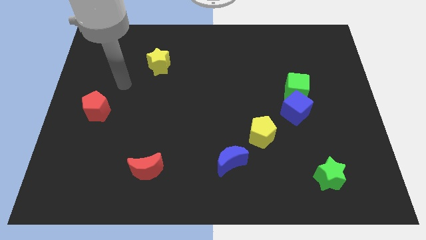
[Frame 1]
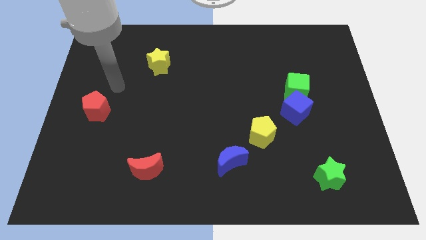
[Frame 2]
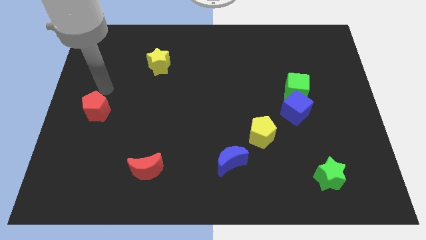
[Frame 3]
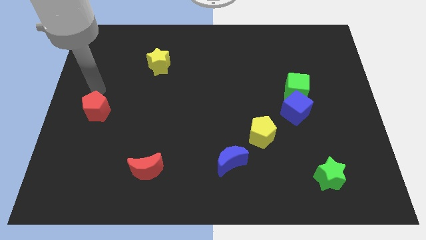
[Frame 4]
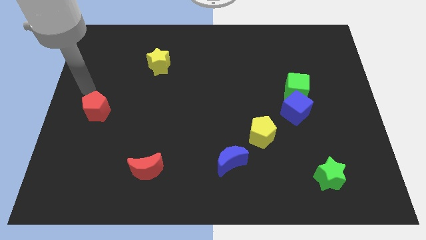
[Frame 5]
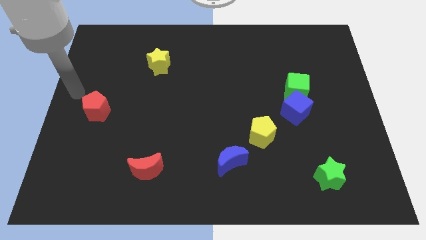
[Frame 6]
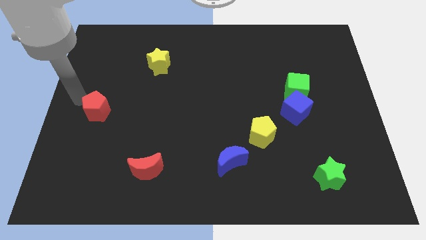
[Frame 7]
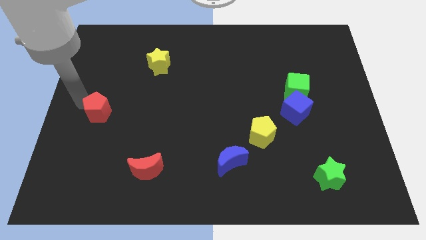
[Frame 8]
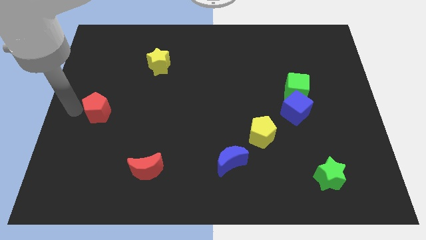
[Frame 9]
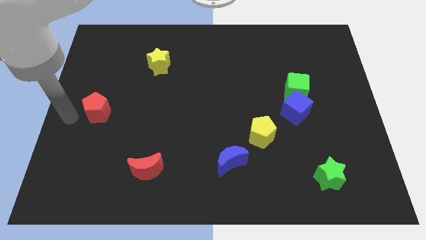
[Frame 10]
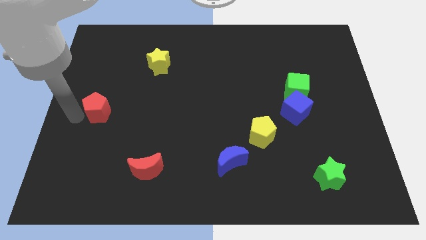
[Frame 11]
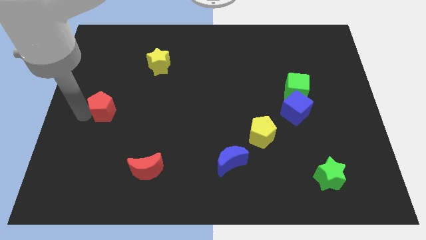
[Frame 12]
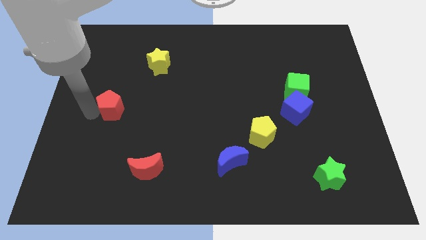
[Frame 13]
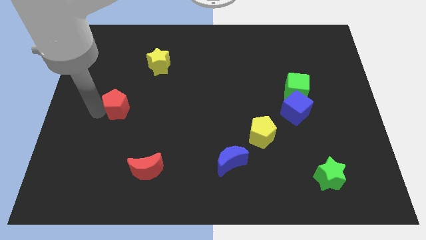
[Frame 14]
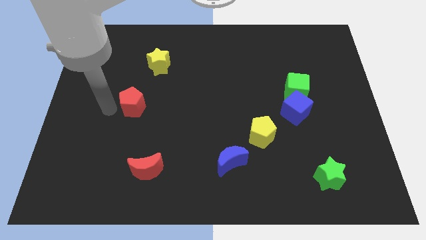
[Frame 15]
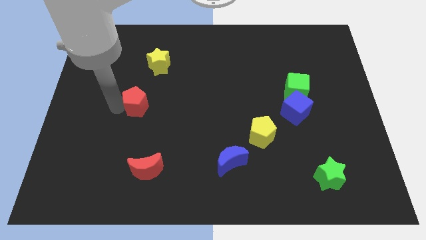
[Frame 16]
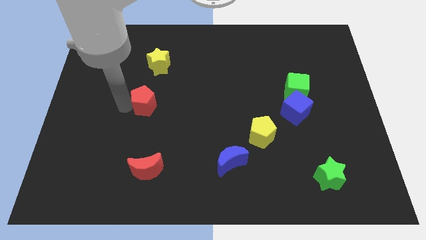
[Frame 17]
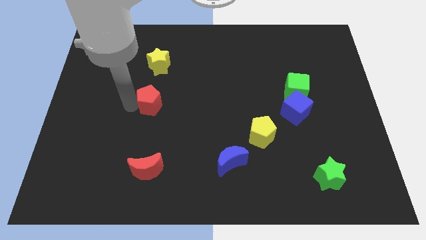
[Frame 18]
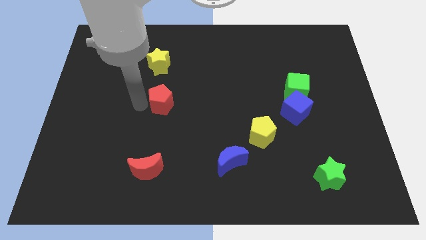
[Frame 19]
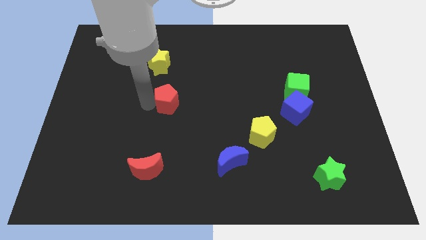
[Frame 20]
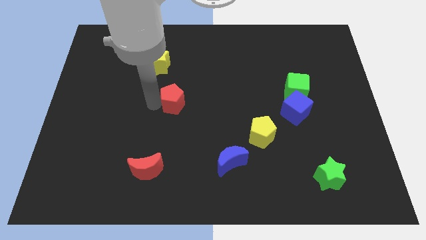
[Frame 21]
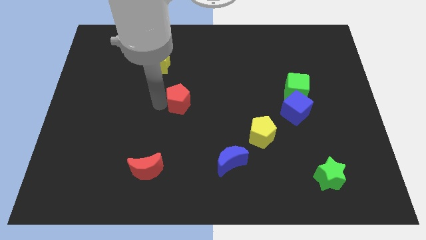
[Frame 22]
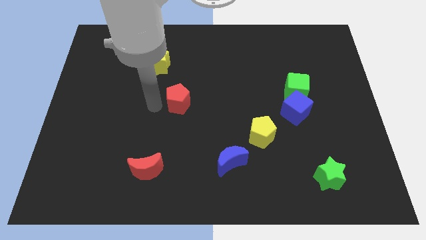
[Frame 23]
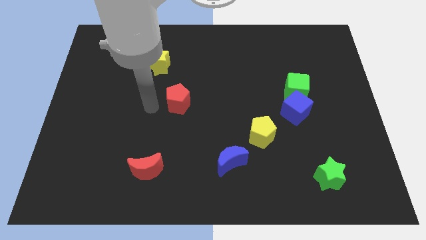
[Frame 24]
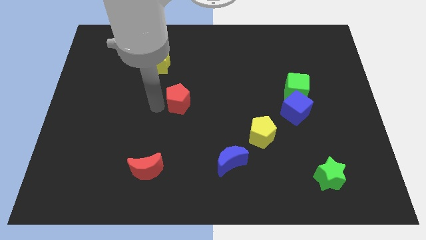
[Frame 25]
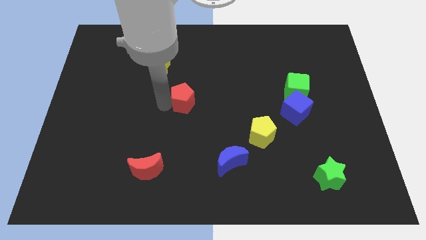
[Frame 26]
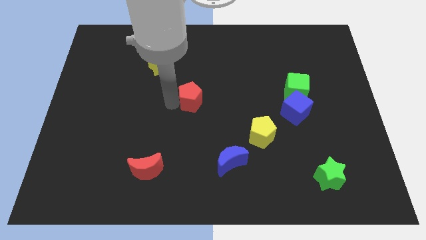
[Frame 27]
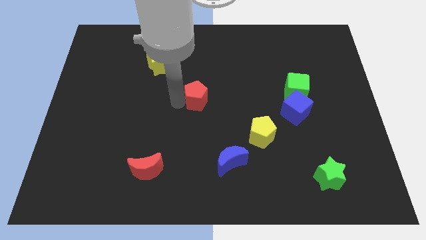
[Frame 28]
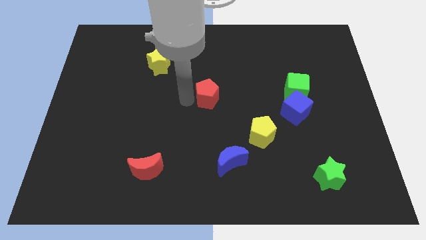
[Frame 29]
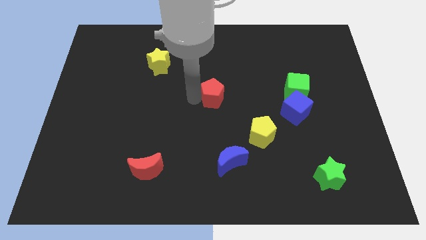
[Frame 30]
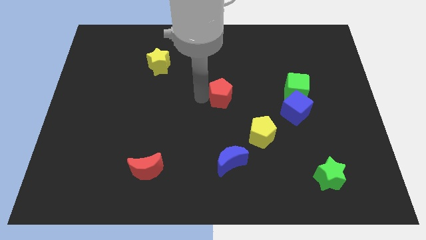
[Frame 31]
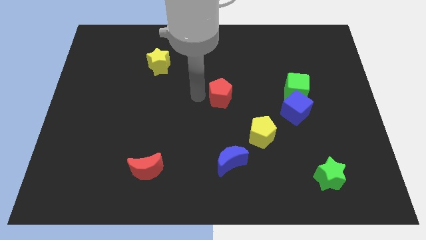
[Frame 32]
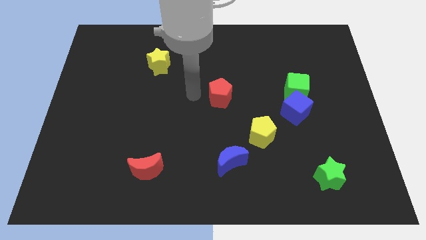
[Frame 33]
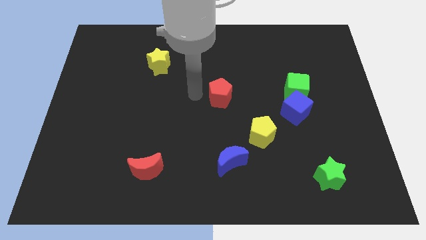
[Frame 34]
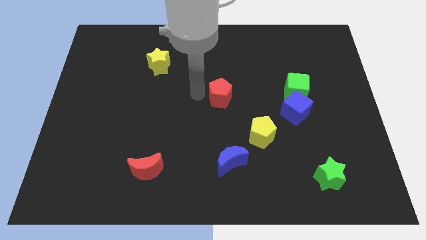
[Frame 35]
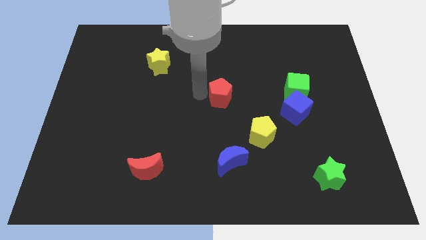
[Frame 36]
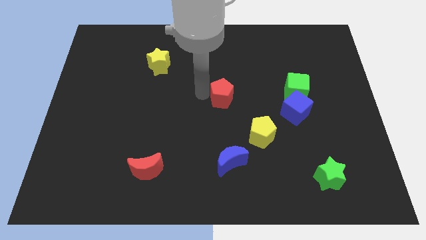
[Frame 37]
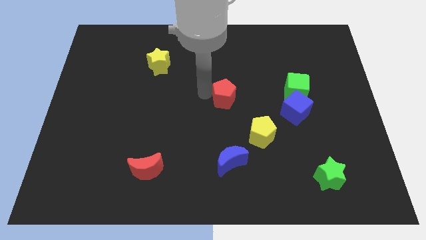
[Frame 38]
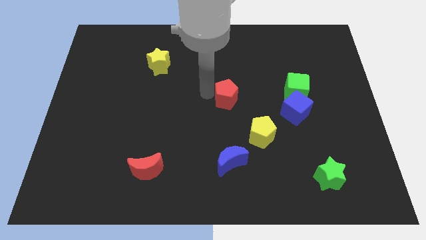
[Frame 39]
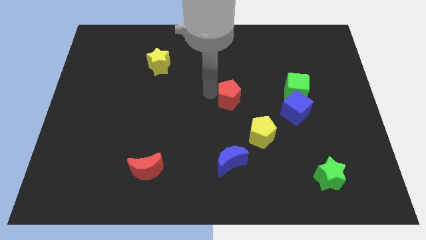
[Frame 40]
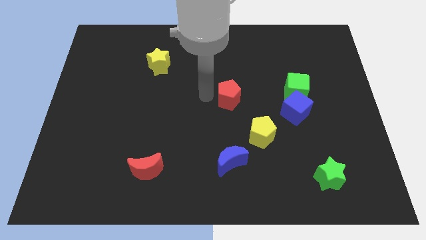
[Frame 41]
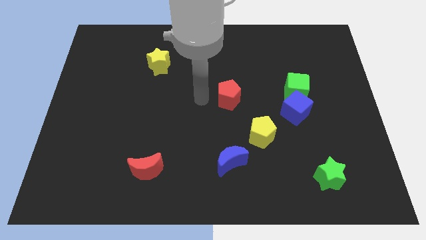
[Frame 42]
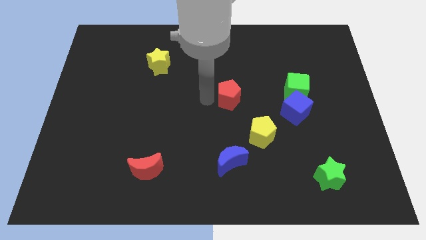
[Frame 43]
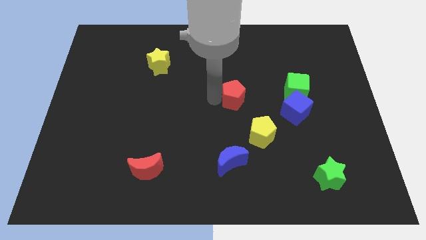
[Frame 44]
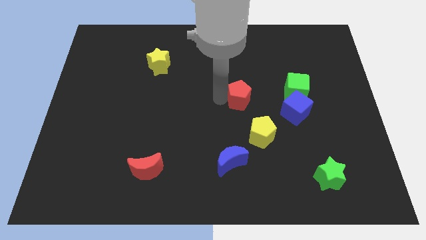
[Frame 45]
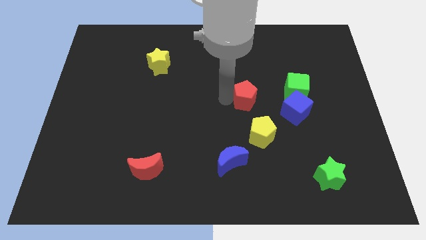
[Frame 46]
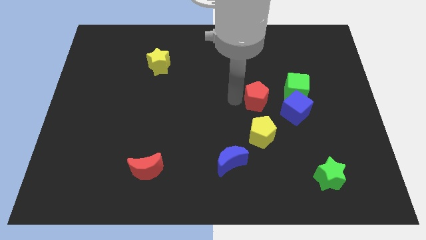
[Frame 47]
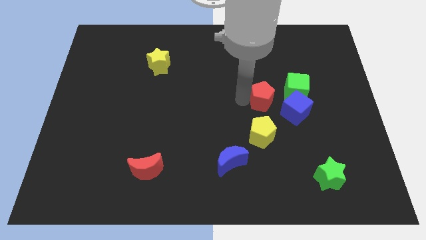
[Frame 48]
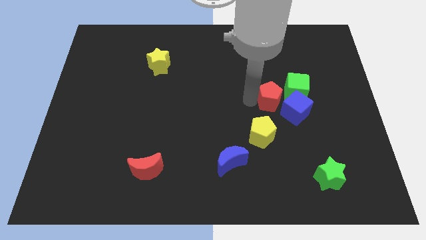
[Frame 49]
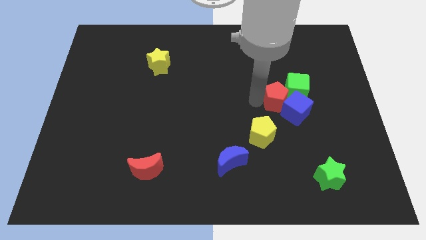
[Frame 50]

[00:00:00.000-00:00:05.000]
push the red pentagon close to the green cube

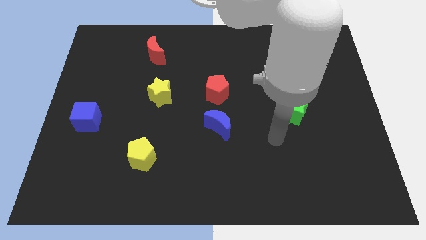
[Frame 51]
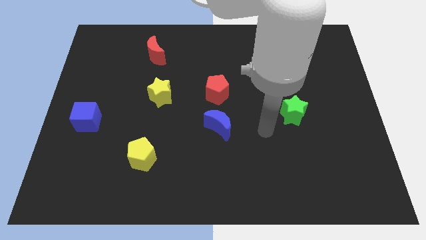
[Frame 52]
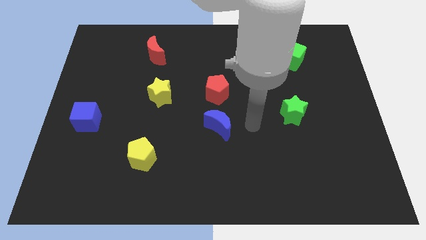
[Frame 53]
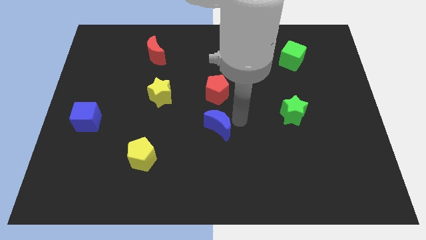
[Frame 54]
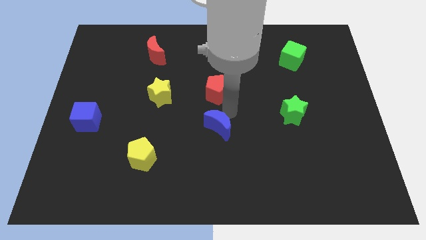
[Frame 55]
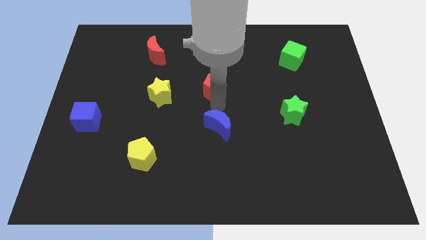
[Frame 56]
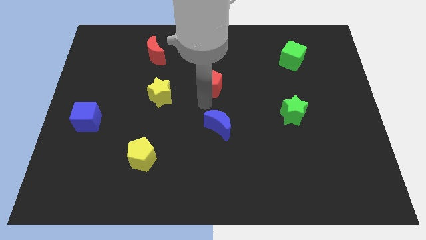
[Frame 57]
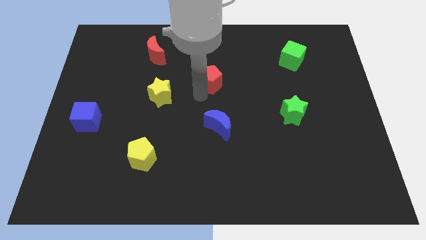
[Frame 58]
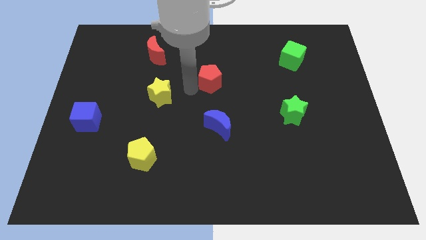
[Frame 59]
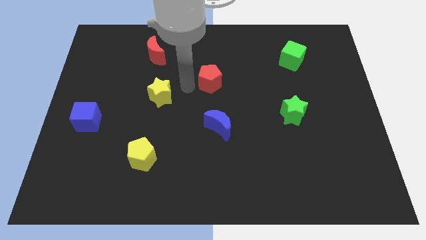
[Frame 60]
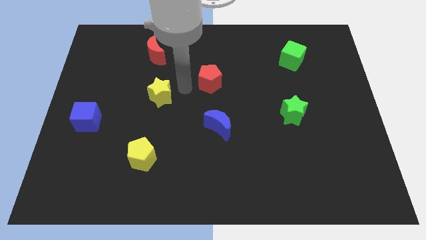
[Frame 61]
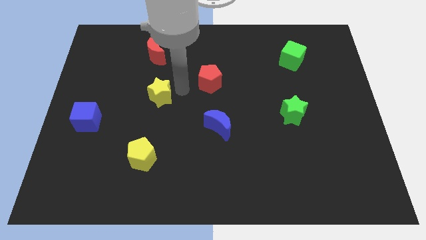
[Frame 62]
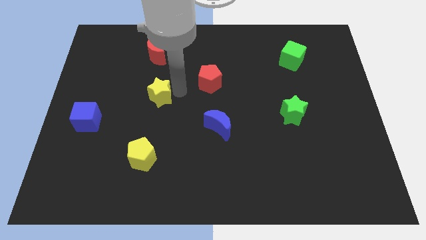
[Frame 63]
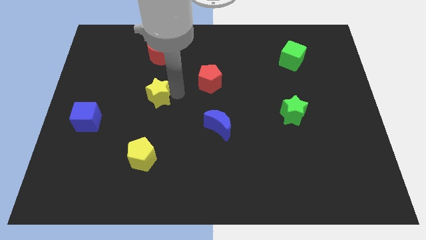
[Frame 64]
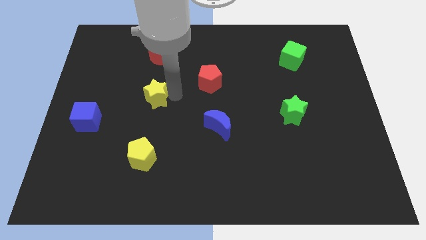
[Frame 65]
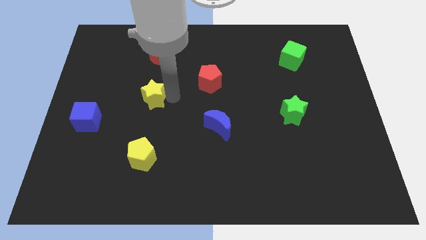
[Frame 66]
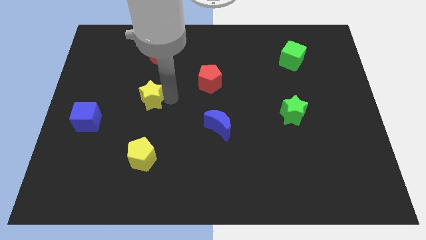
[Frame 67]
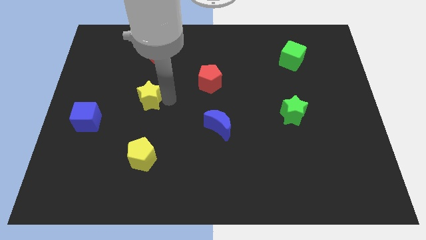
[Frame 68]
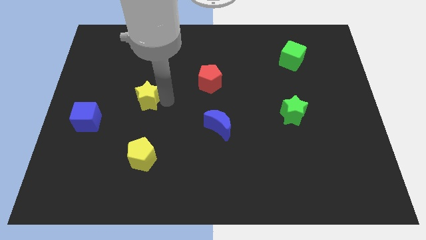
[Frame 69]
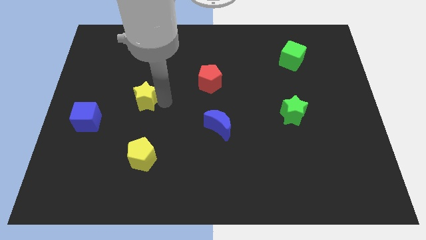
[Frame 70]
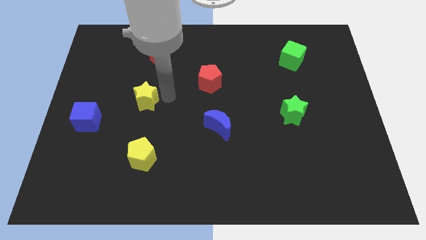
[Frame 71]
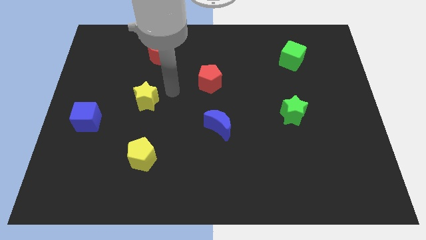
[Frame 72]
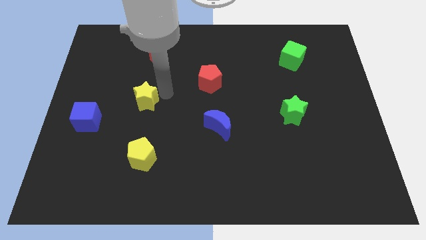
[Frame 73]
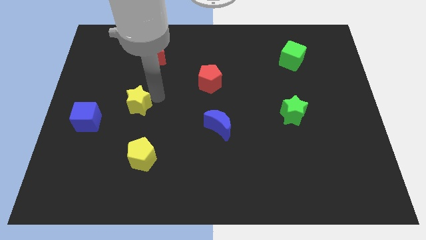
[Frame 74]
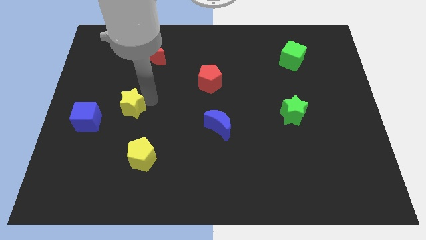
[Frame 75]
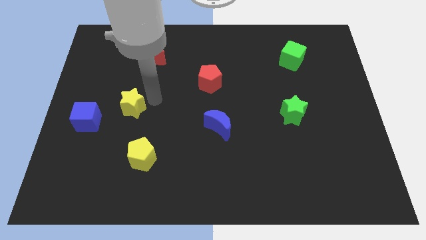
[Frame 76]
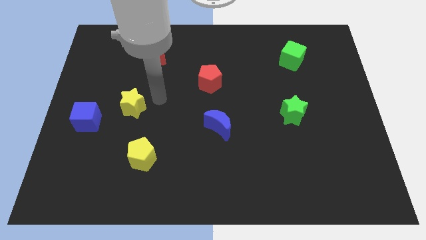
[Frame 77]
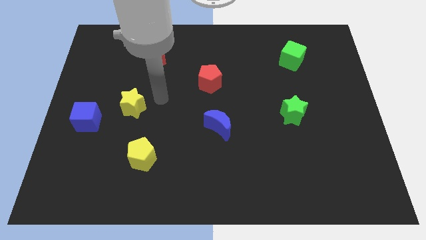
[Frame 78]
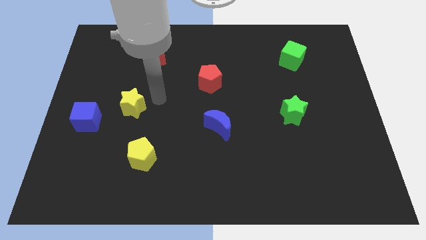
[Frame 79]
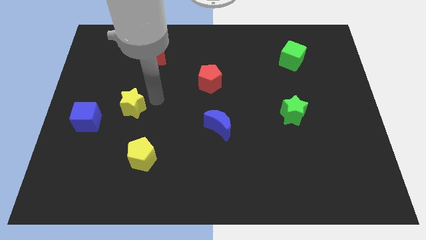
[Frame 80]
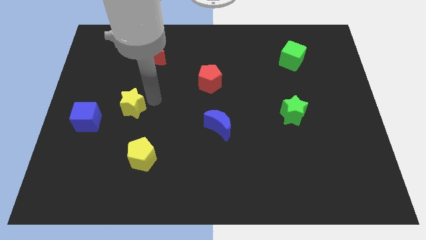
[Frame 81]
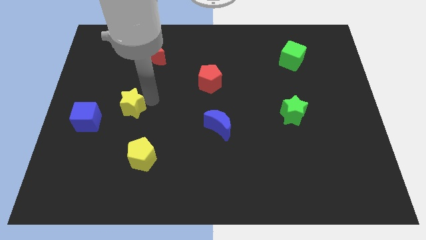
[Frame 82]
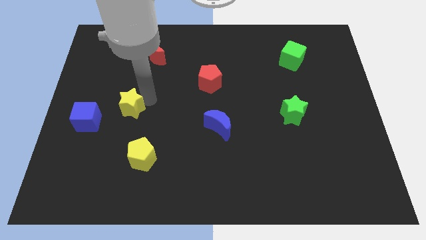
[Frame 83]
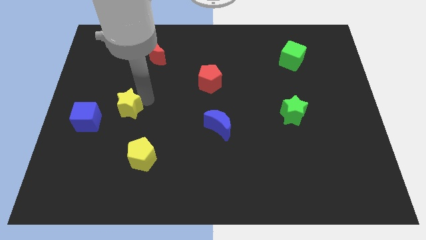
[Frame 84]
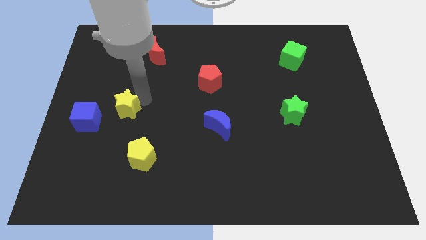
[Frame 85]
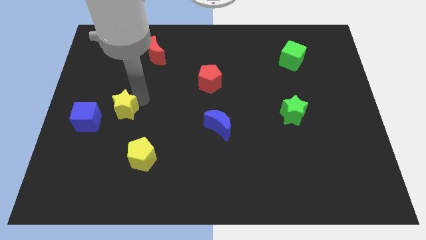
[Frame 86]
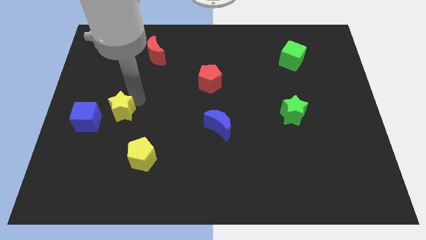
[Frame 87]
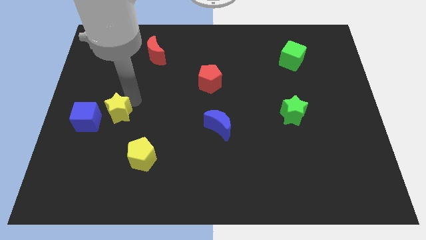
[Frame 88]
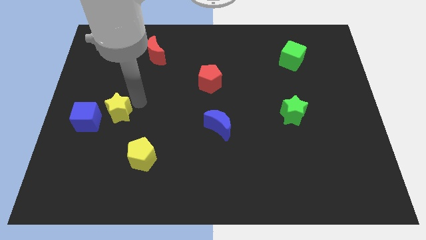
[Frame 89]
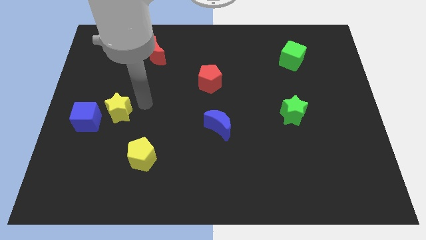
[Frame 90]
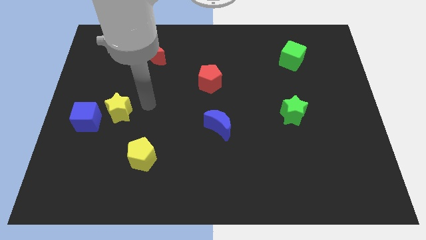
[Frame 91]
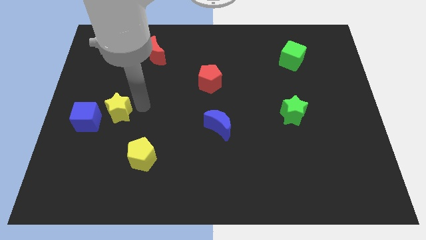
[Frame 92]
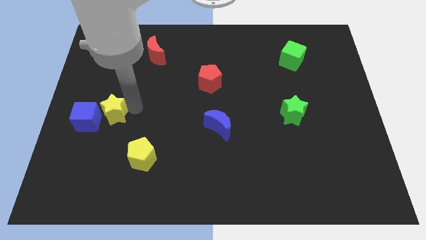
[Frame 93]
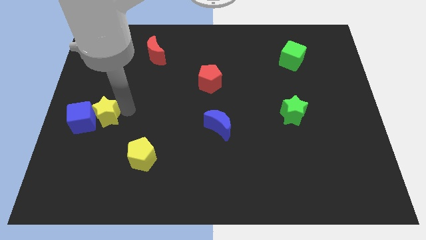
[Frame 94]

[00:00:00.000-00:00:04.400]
move the yellow star towards the blue cube
